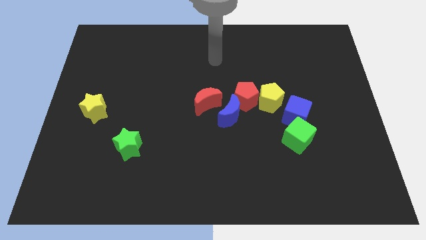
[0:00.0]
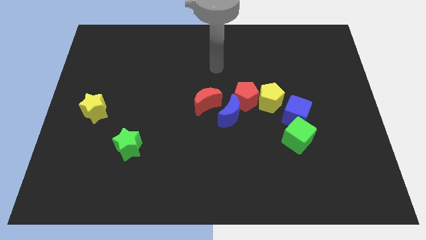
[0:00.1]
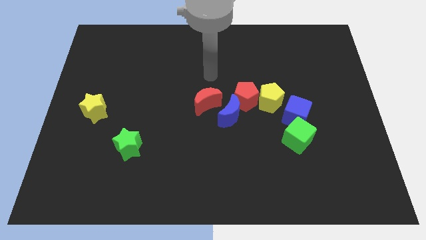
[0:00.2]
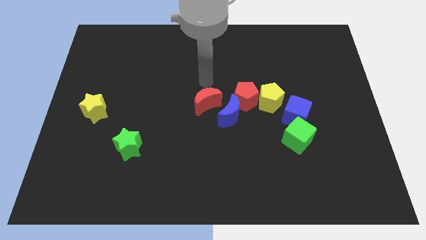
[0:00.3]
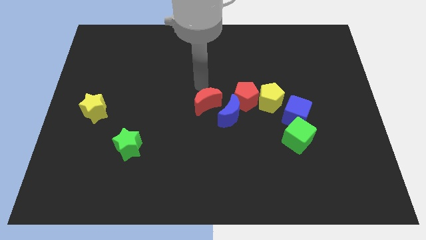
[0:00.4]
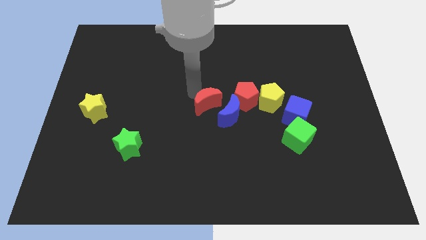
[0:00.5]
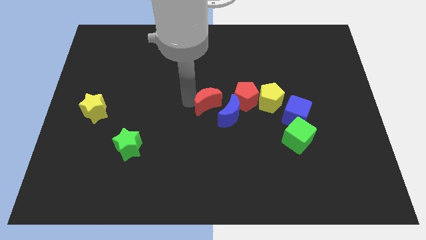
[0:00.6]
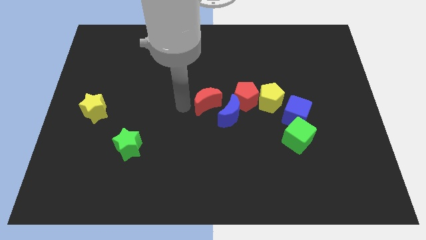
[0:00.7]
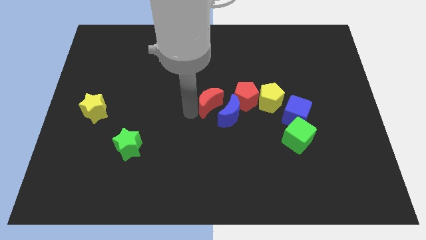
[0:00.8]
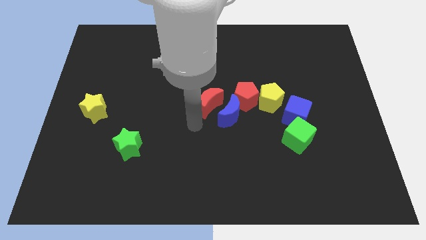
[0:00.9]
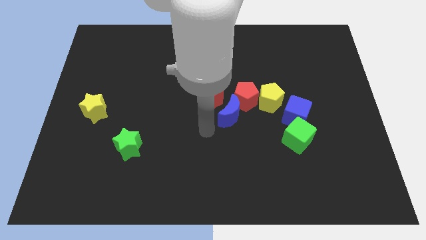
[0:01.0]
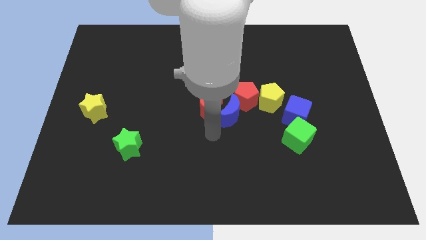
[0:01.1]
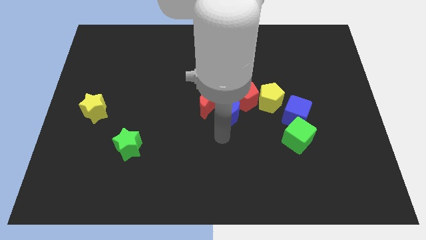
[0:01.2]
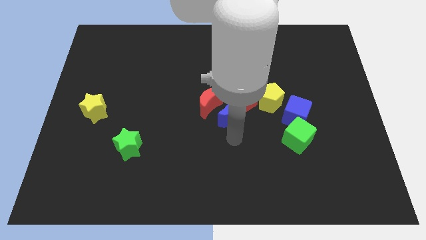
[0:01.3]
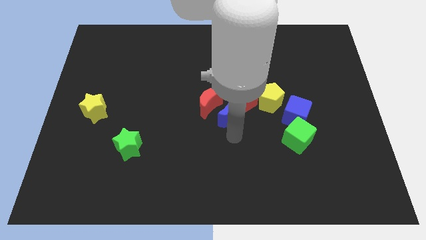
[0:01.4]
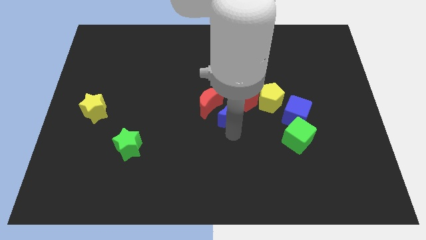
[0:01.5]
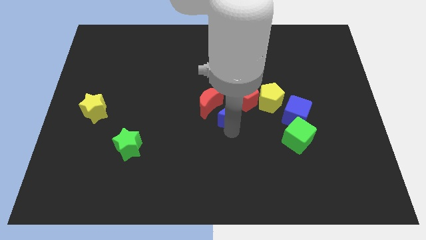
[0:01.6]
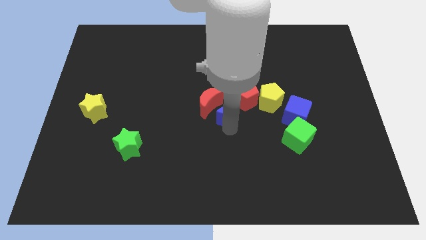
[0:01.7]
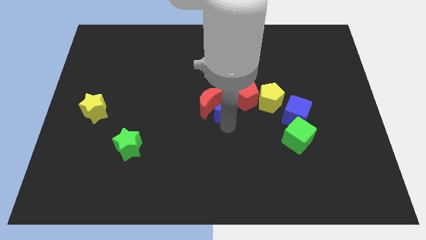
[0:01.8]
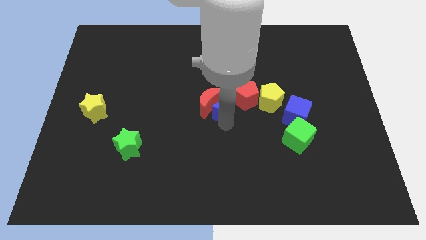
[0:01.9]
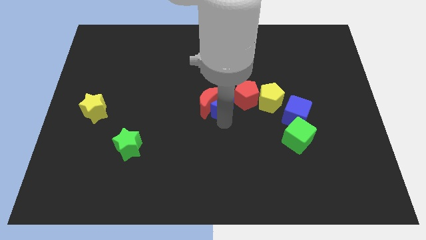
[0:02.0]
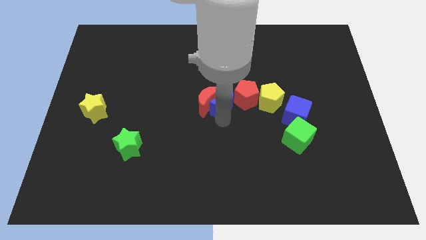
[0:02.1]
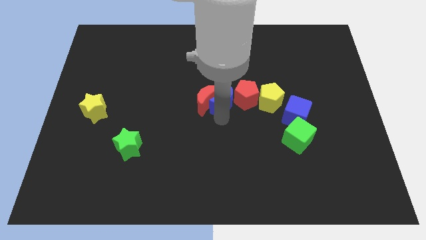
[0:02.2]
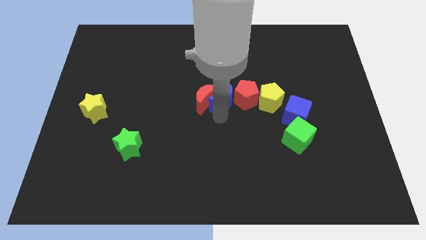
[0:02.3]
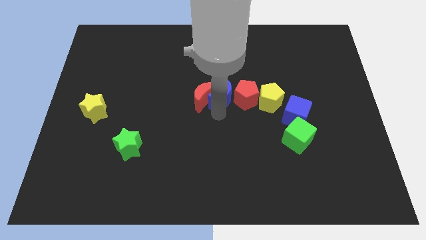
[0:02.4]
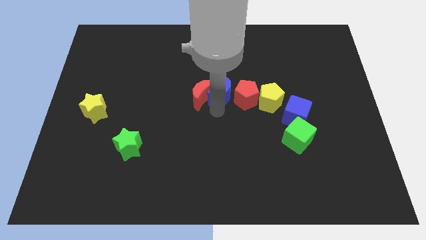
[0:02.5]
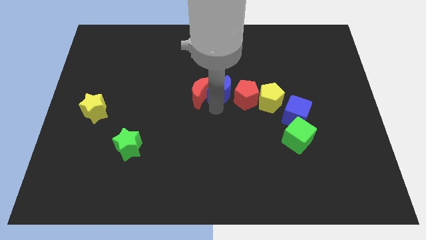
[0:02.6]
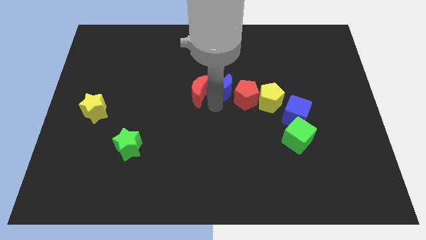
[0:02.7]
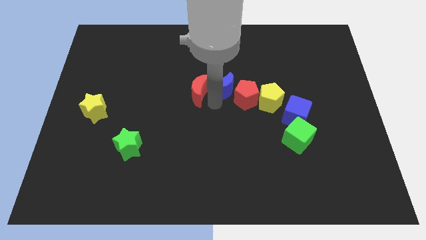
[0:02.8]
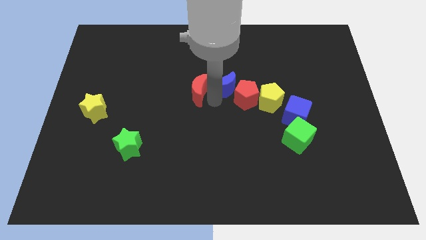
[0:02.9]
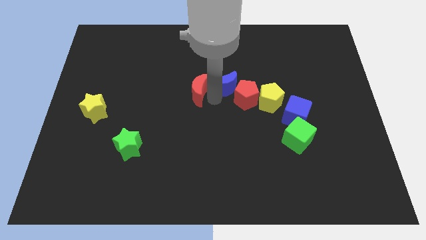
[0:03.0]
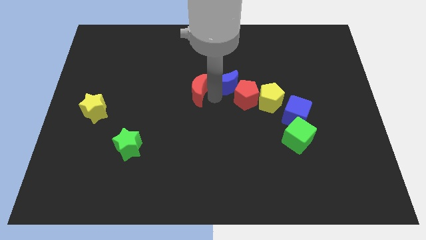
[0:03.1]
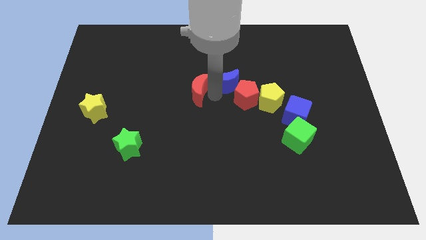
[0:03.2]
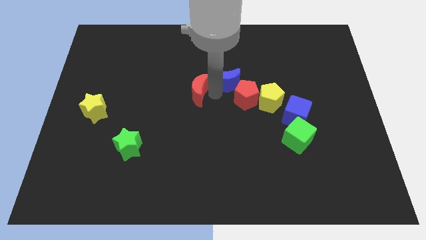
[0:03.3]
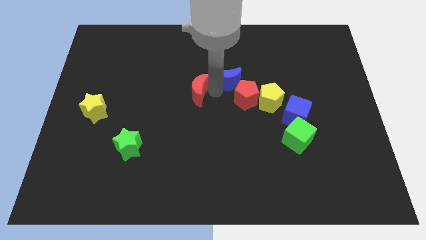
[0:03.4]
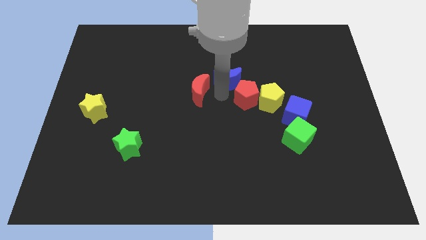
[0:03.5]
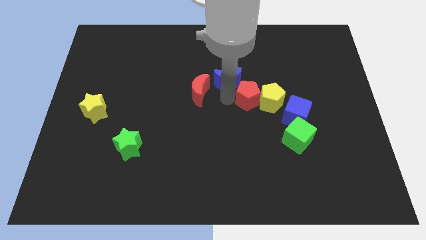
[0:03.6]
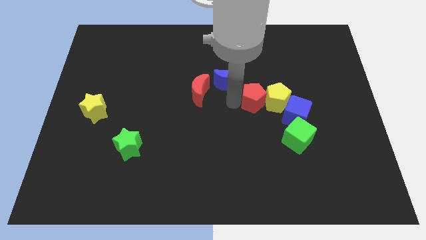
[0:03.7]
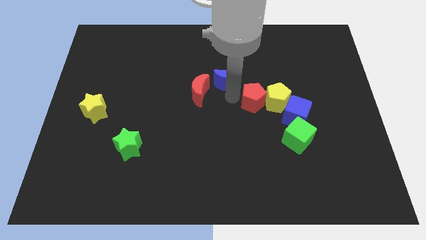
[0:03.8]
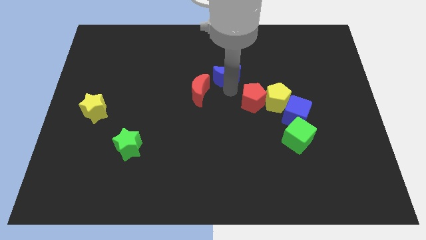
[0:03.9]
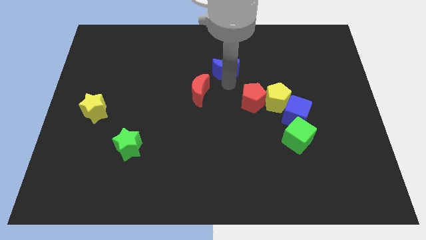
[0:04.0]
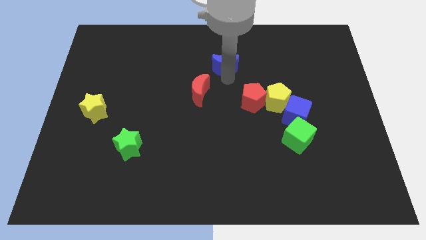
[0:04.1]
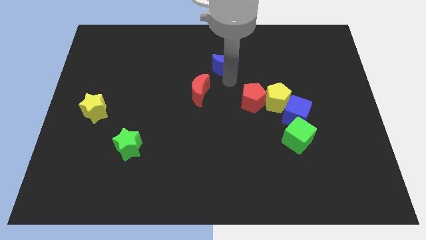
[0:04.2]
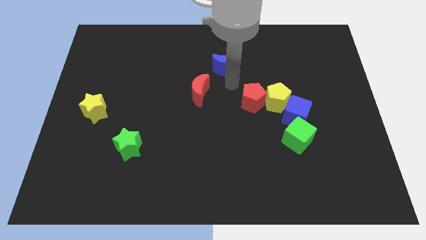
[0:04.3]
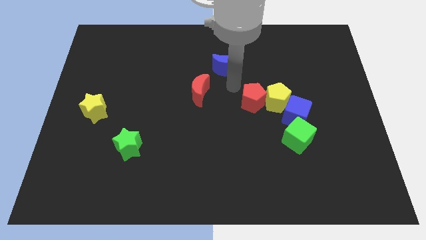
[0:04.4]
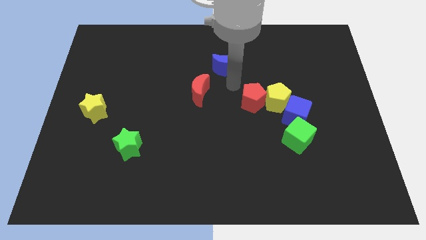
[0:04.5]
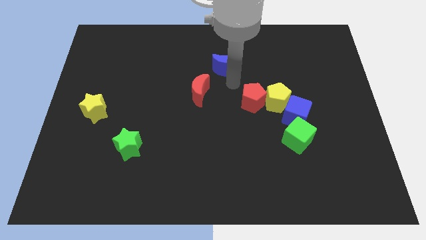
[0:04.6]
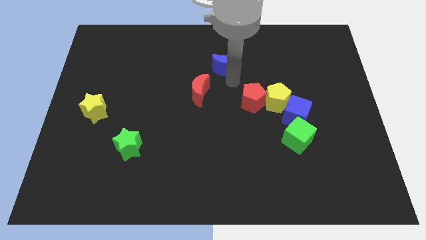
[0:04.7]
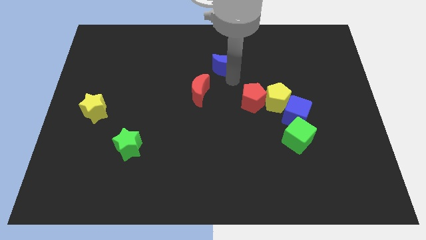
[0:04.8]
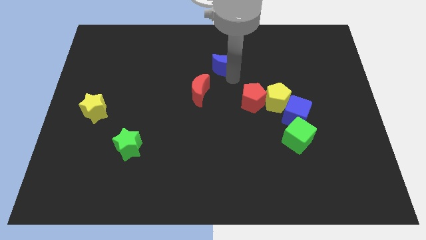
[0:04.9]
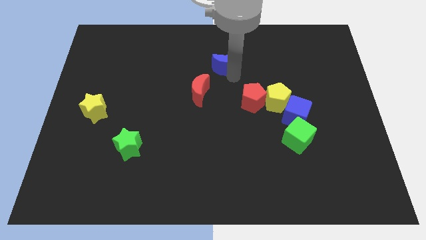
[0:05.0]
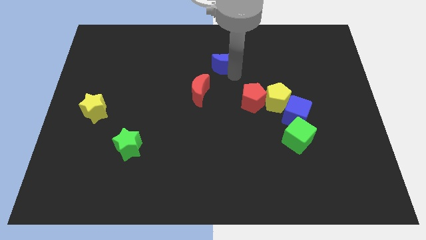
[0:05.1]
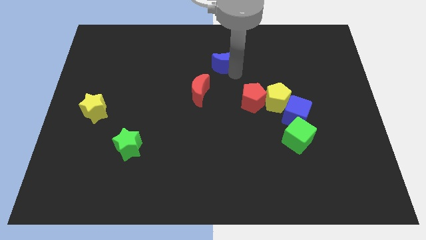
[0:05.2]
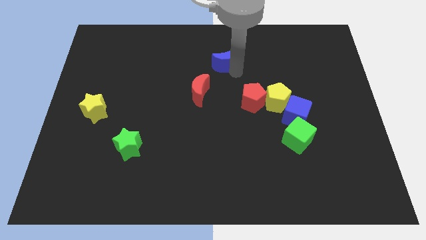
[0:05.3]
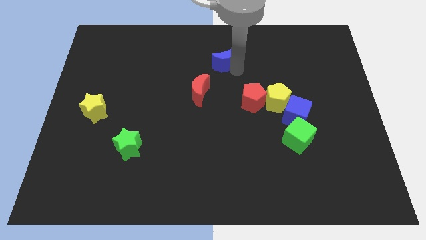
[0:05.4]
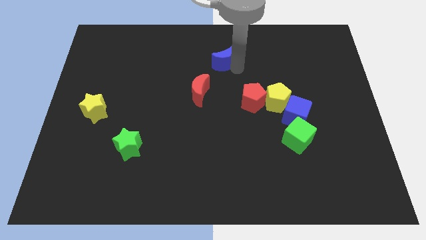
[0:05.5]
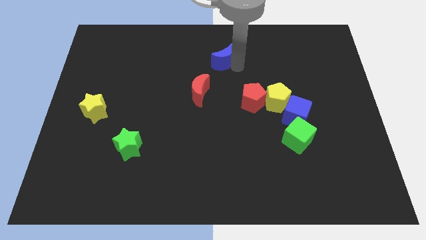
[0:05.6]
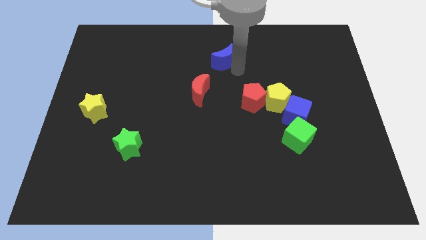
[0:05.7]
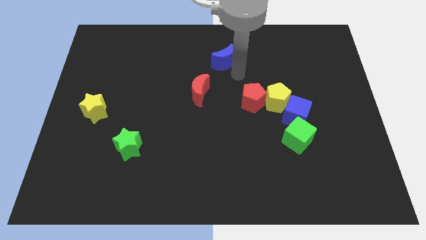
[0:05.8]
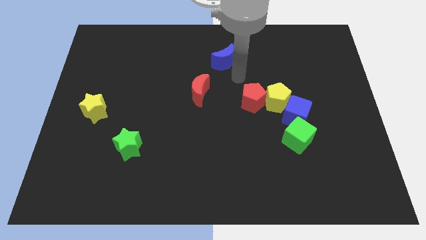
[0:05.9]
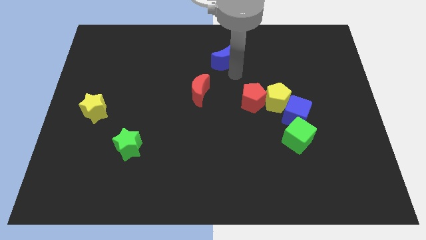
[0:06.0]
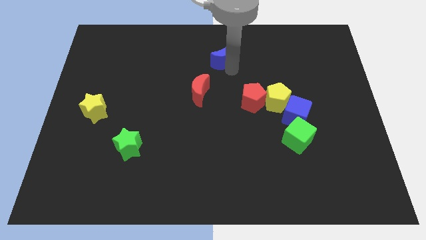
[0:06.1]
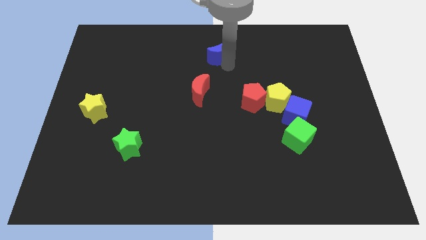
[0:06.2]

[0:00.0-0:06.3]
slide the blue moon to the top

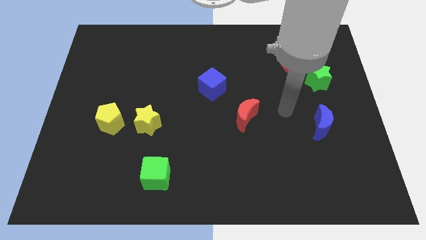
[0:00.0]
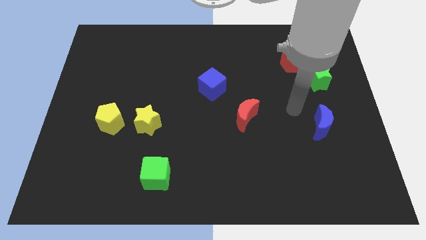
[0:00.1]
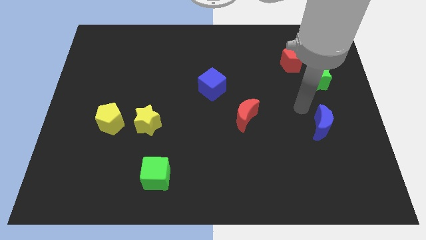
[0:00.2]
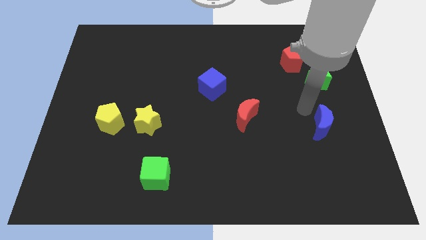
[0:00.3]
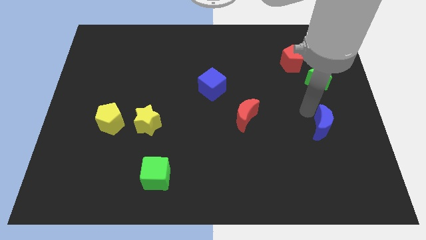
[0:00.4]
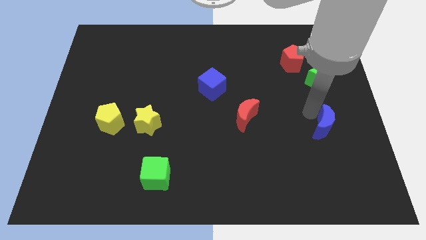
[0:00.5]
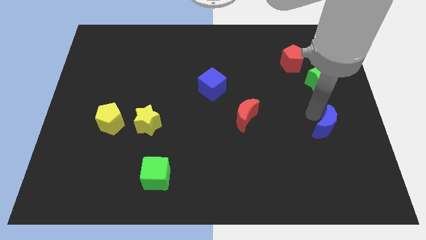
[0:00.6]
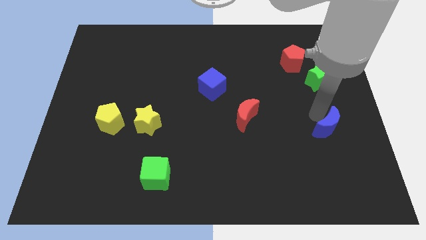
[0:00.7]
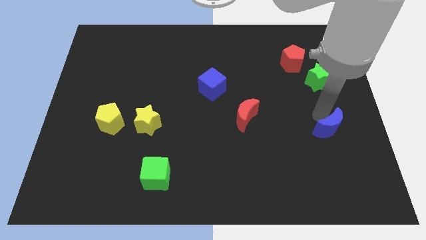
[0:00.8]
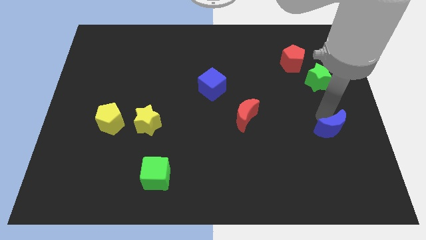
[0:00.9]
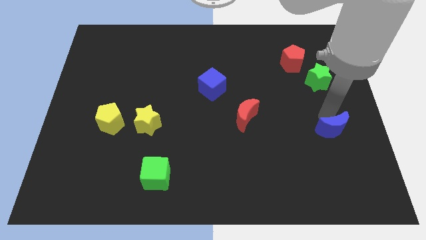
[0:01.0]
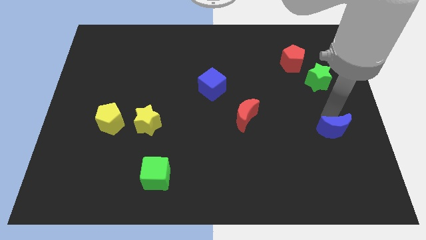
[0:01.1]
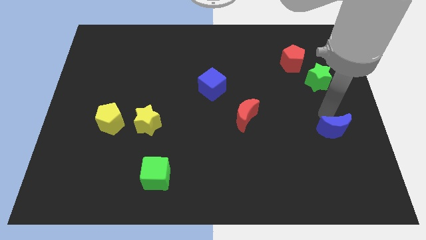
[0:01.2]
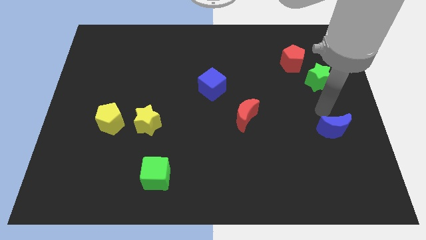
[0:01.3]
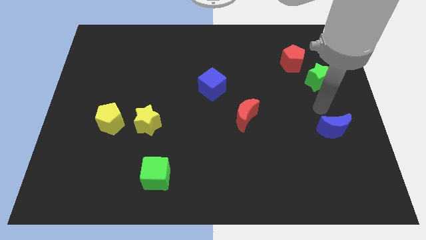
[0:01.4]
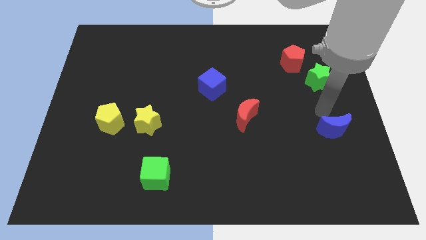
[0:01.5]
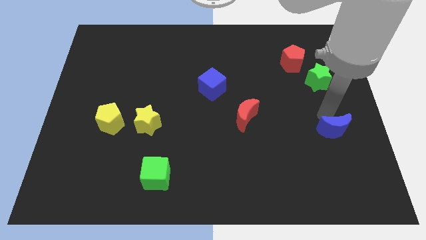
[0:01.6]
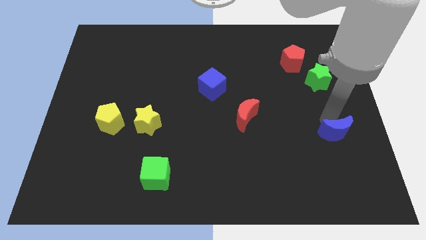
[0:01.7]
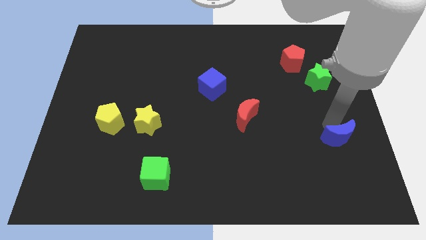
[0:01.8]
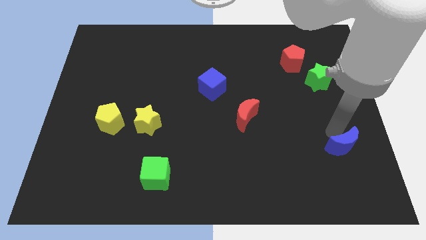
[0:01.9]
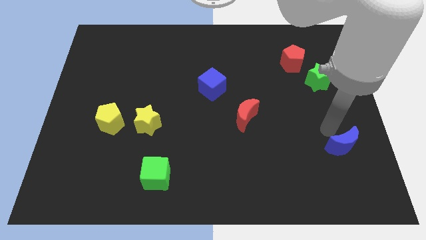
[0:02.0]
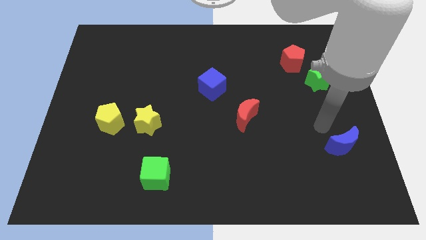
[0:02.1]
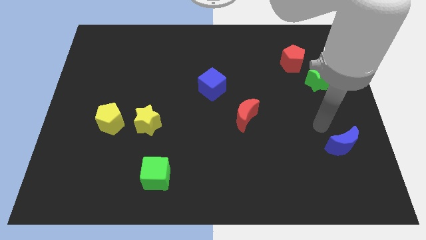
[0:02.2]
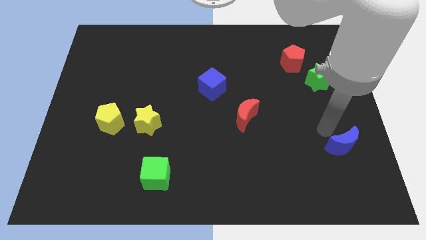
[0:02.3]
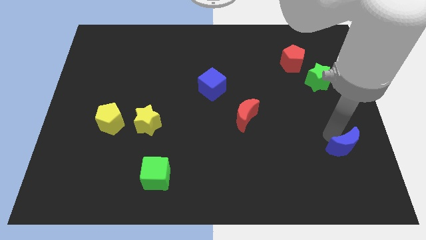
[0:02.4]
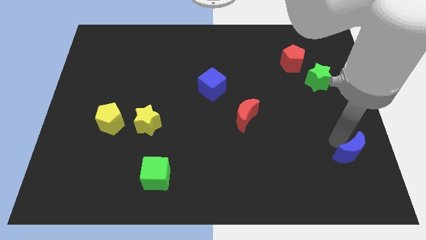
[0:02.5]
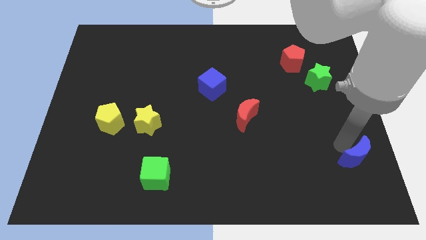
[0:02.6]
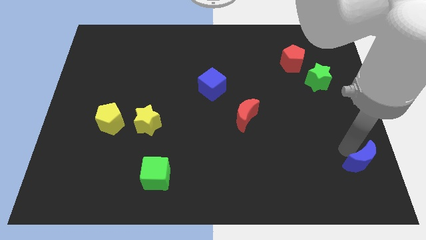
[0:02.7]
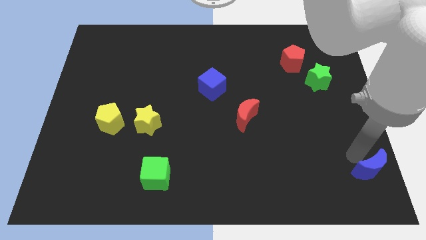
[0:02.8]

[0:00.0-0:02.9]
push the blue moon to the bottom right of the board
